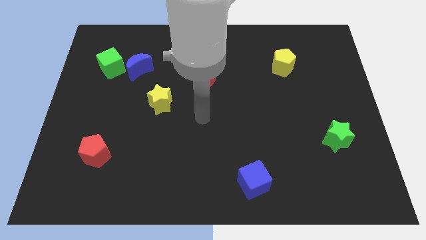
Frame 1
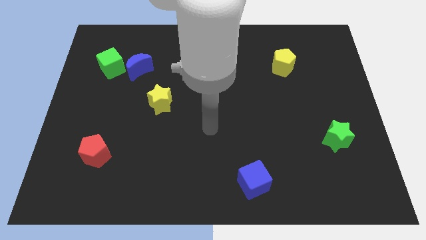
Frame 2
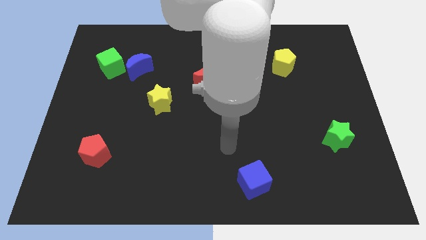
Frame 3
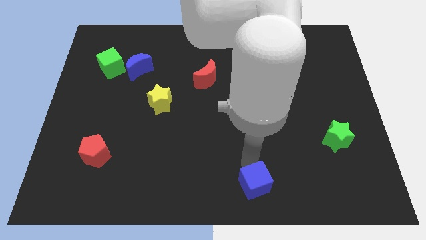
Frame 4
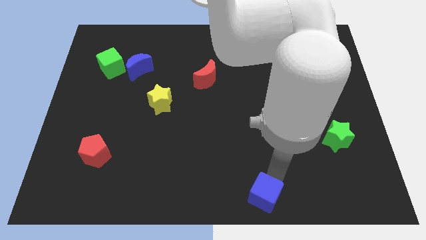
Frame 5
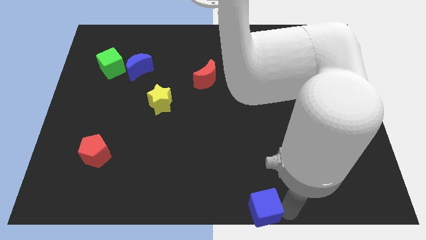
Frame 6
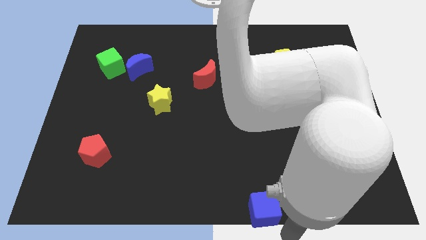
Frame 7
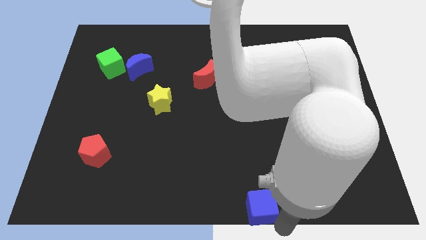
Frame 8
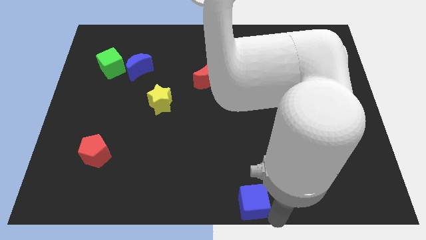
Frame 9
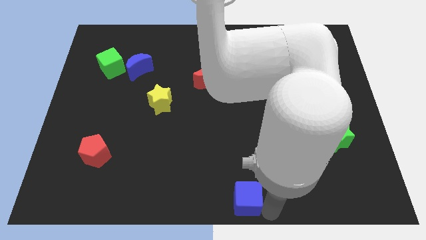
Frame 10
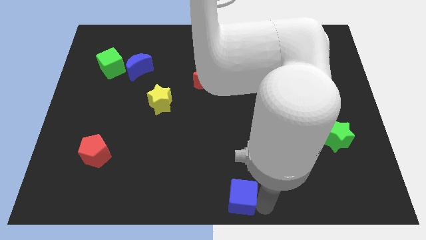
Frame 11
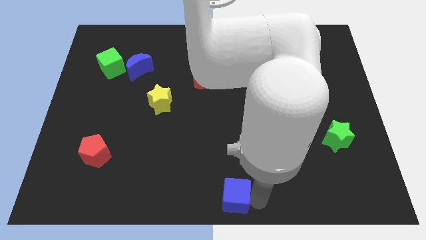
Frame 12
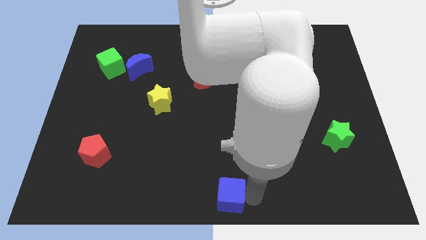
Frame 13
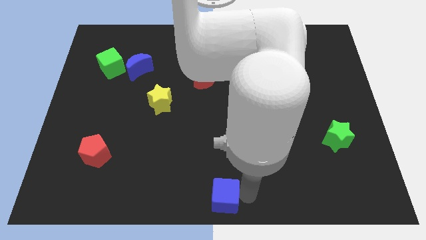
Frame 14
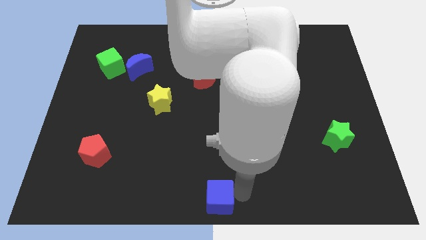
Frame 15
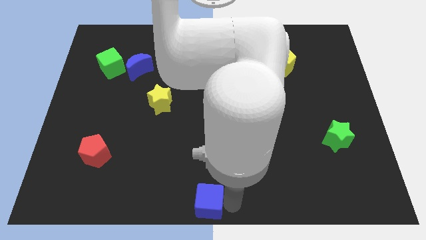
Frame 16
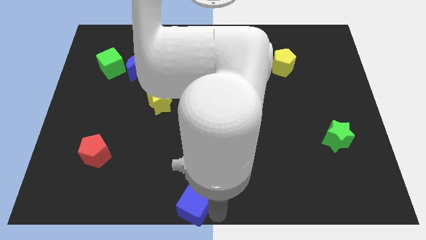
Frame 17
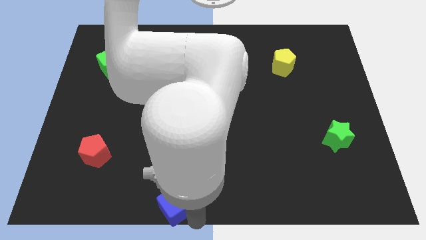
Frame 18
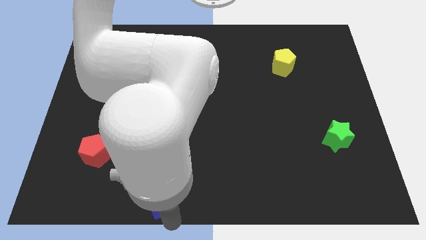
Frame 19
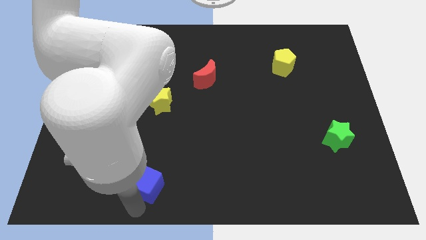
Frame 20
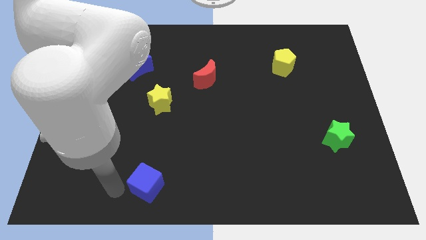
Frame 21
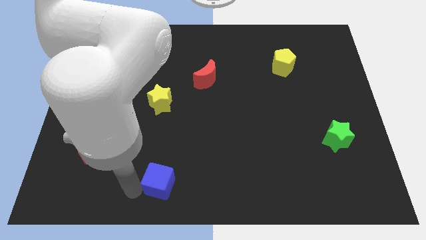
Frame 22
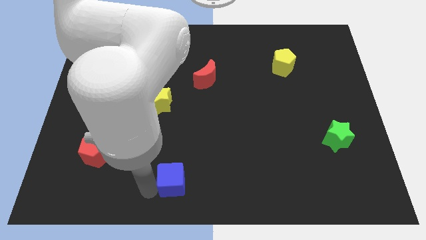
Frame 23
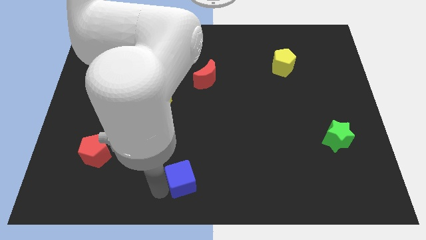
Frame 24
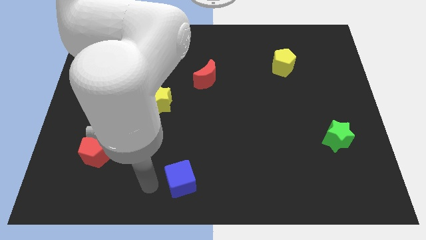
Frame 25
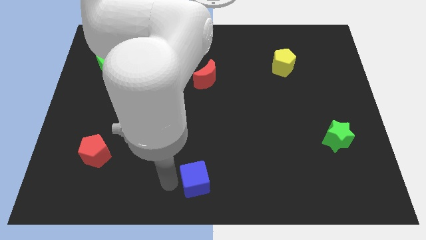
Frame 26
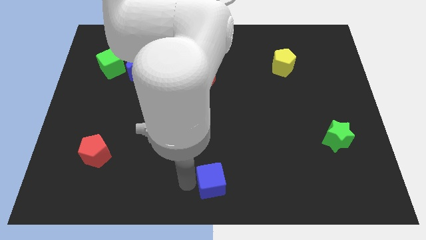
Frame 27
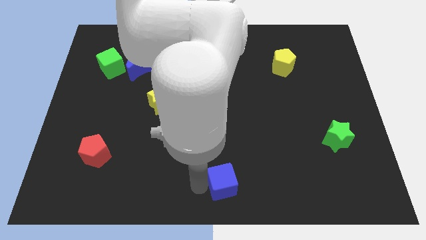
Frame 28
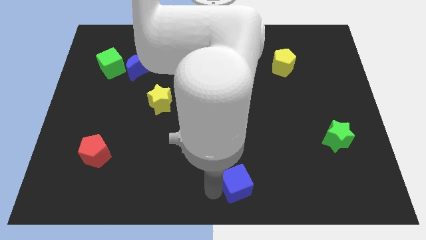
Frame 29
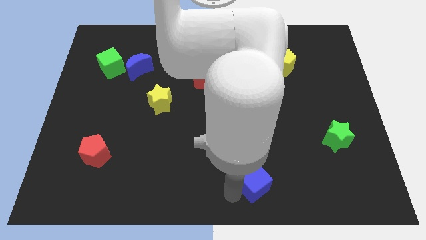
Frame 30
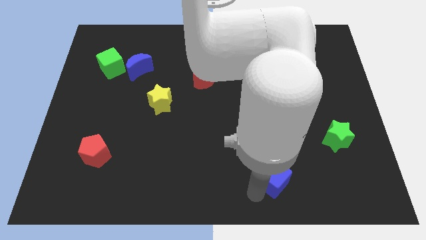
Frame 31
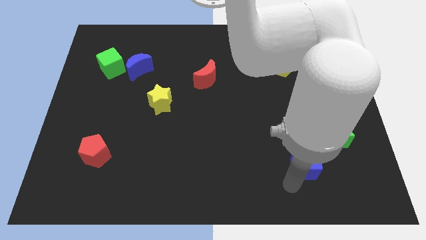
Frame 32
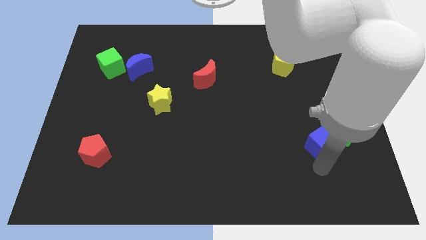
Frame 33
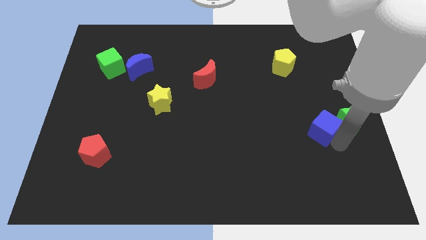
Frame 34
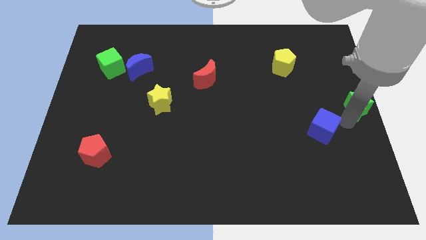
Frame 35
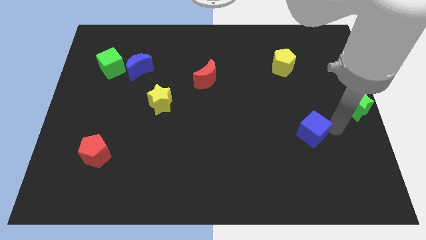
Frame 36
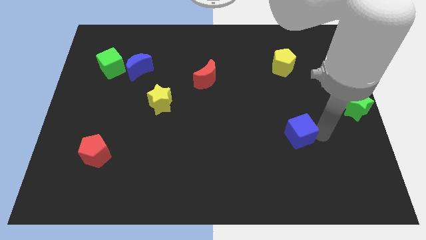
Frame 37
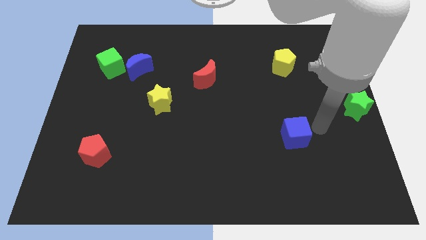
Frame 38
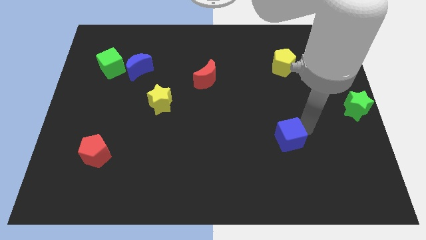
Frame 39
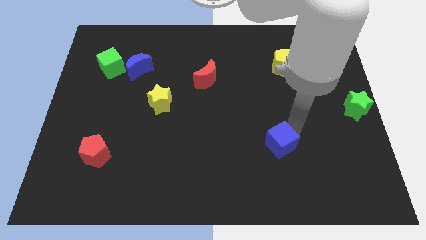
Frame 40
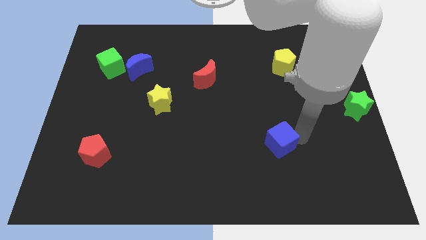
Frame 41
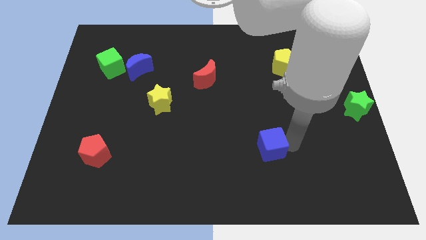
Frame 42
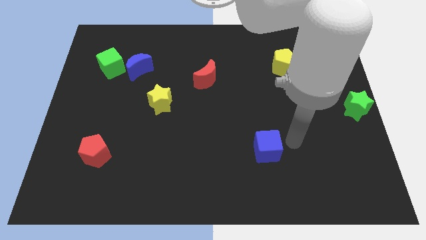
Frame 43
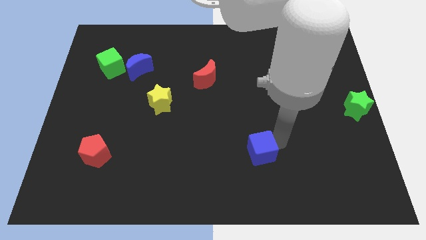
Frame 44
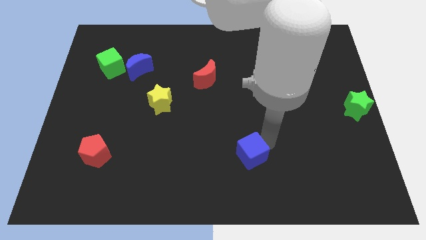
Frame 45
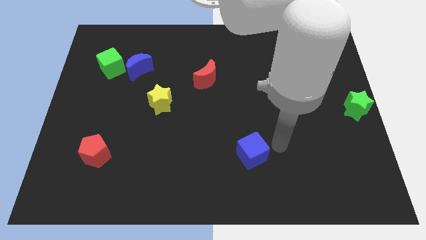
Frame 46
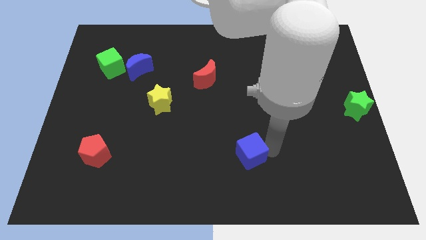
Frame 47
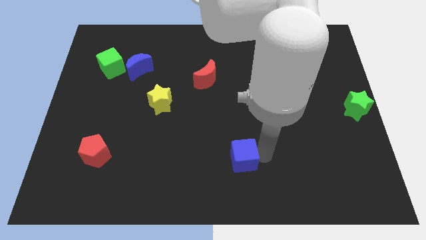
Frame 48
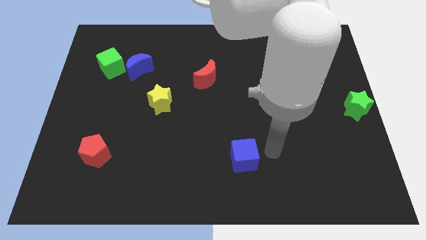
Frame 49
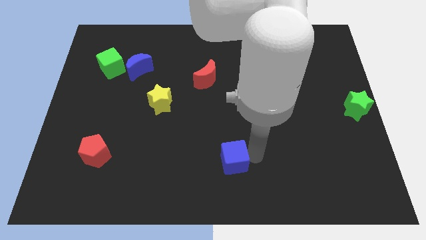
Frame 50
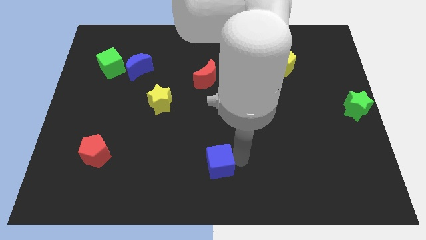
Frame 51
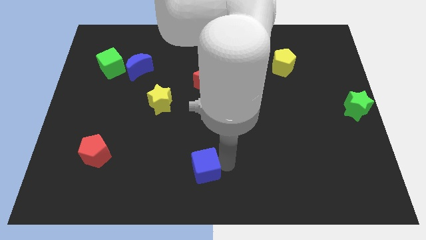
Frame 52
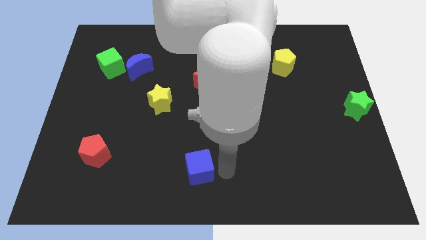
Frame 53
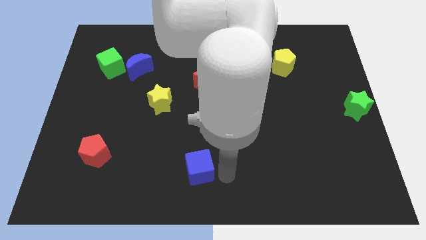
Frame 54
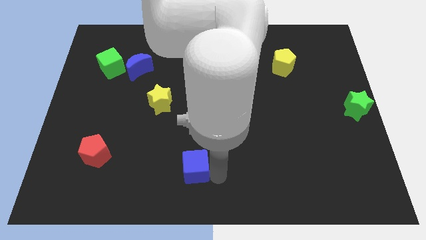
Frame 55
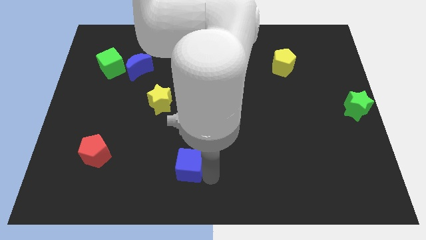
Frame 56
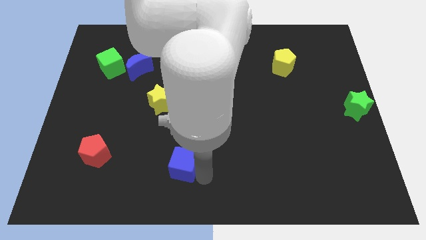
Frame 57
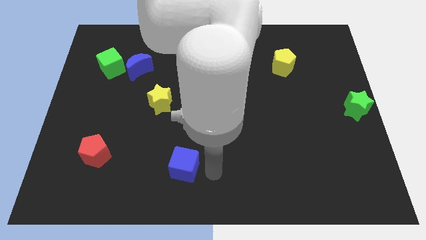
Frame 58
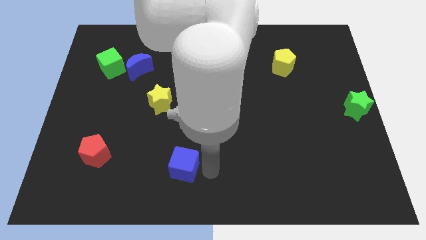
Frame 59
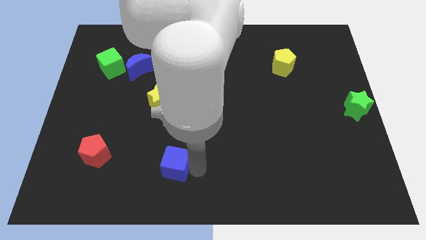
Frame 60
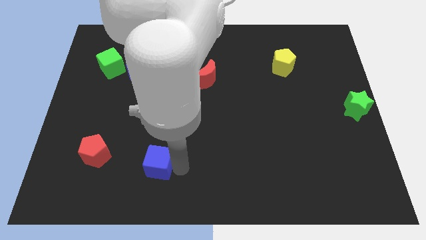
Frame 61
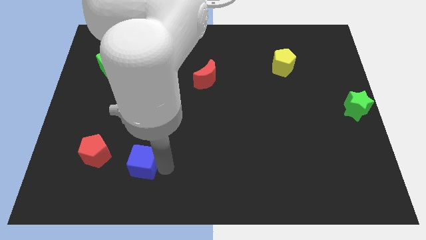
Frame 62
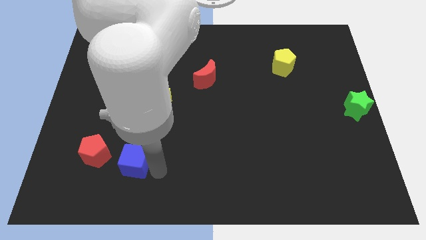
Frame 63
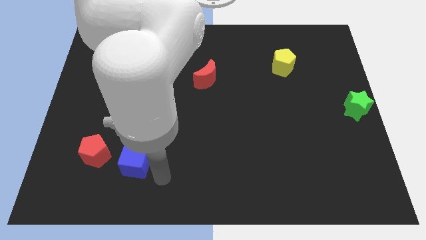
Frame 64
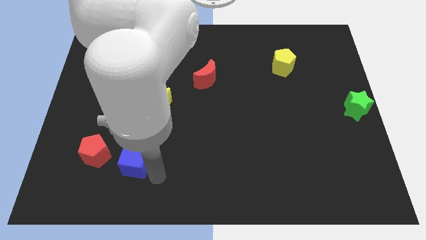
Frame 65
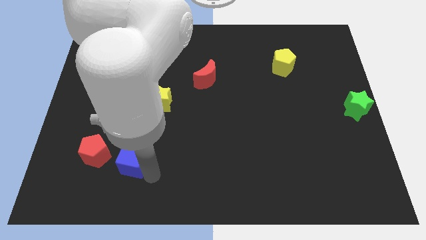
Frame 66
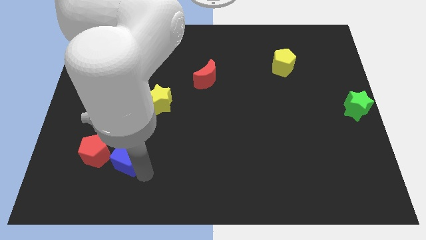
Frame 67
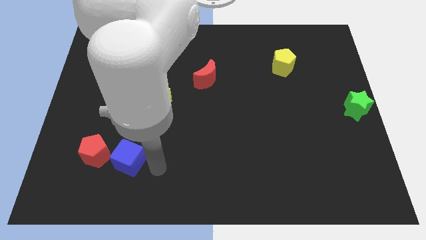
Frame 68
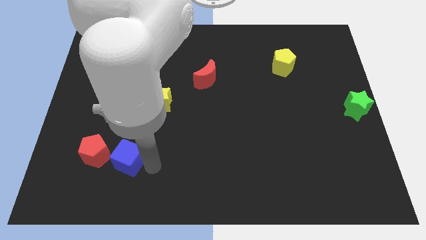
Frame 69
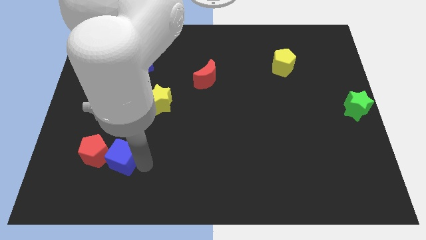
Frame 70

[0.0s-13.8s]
put the blue cube close to the red pentagon
